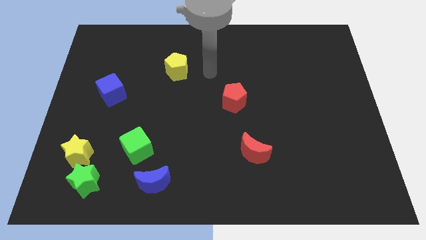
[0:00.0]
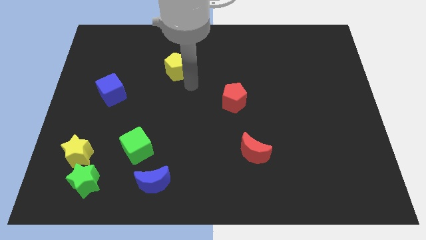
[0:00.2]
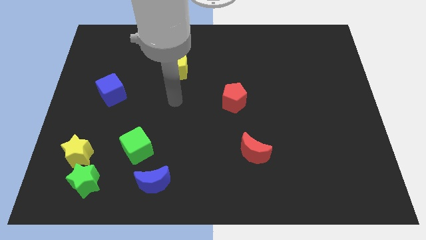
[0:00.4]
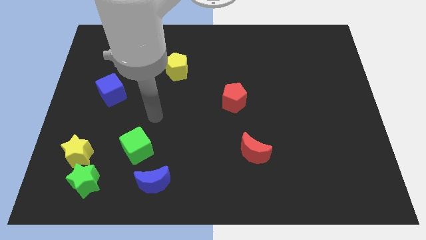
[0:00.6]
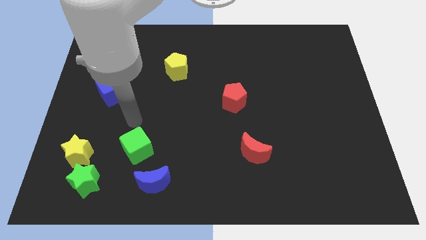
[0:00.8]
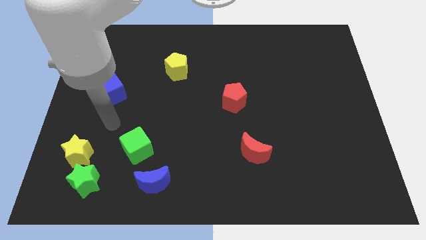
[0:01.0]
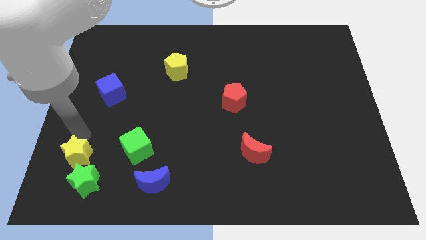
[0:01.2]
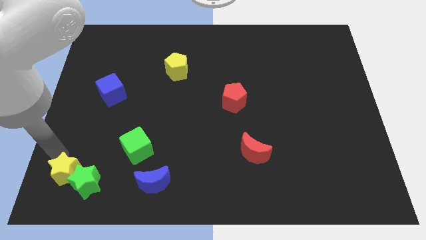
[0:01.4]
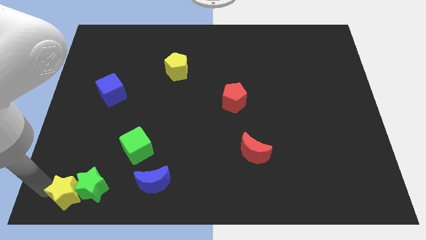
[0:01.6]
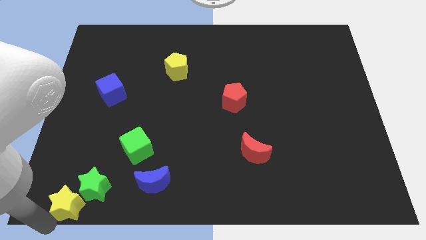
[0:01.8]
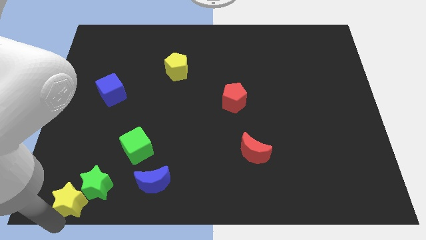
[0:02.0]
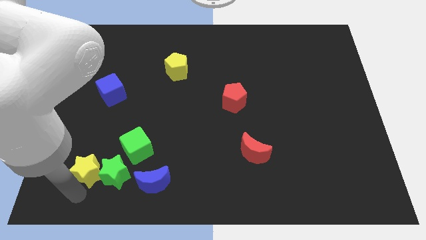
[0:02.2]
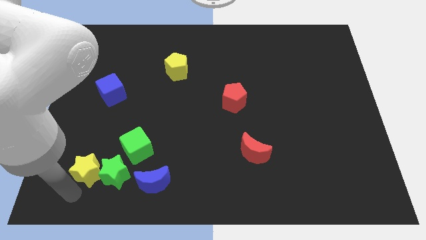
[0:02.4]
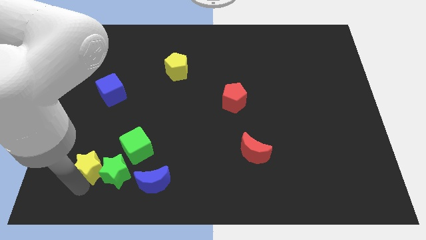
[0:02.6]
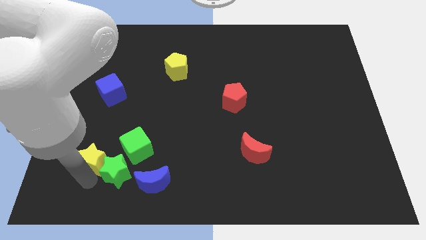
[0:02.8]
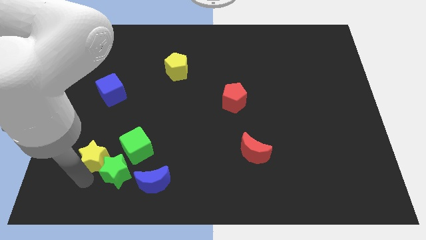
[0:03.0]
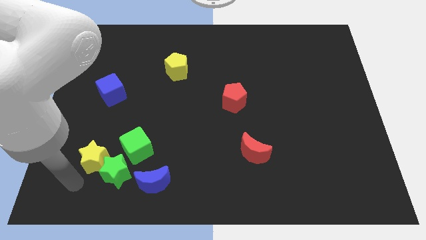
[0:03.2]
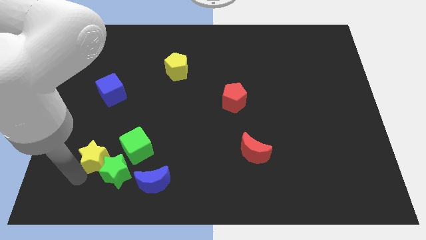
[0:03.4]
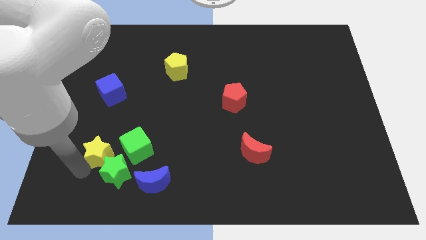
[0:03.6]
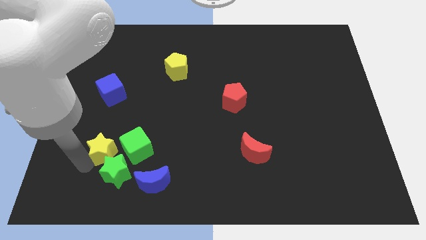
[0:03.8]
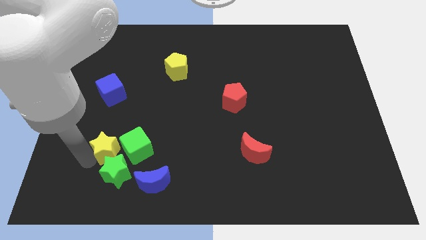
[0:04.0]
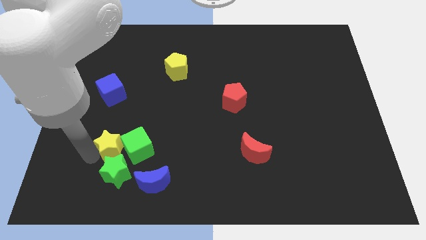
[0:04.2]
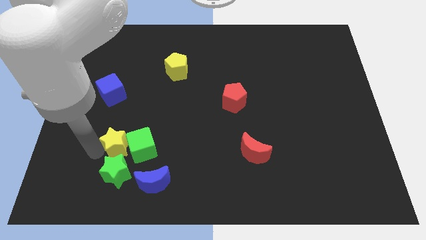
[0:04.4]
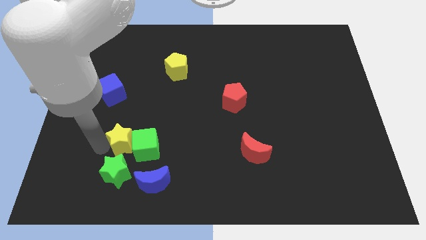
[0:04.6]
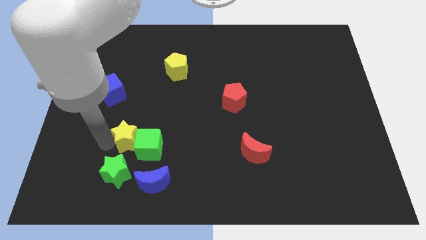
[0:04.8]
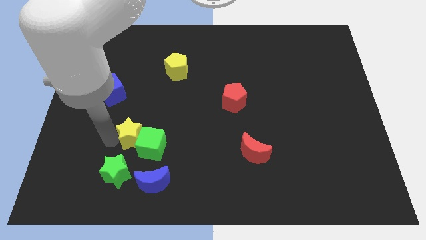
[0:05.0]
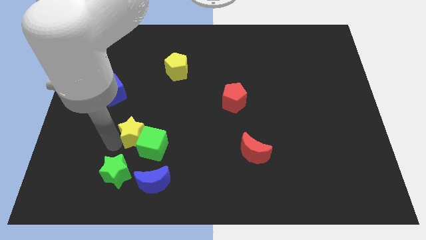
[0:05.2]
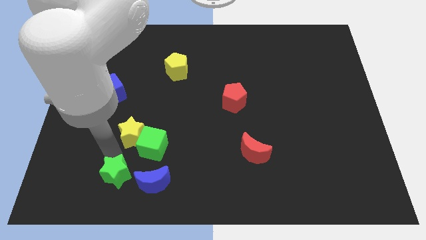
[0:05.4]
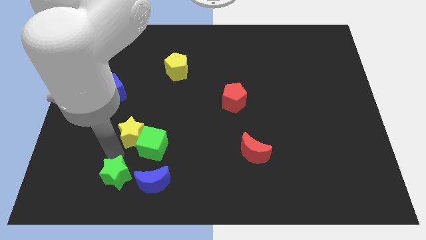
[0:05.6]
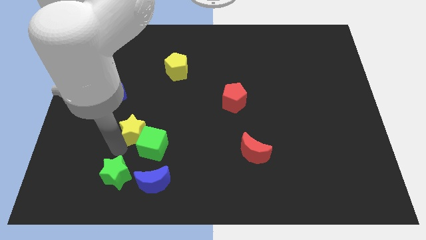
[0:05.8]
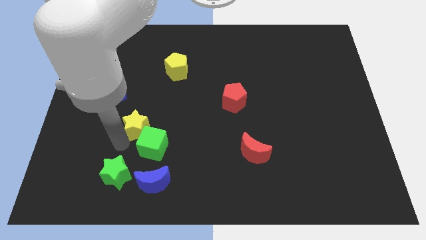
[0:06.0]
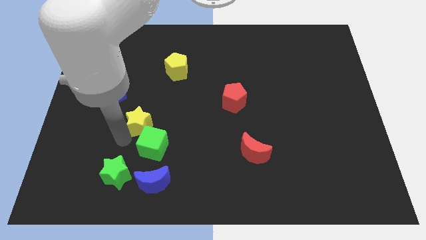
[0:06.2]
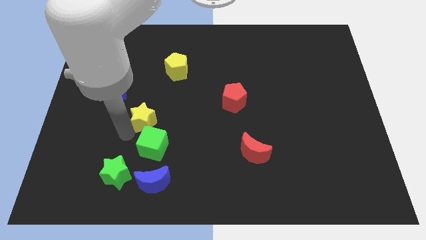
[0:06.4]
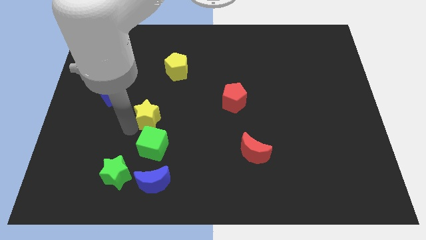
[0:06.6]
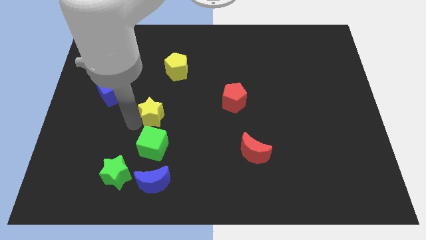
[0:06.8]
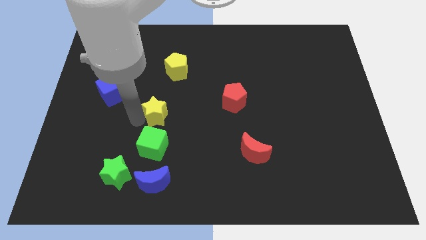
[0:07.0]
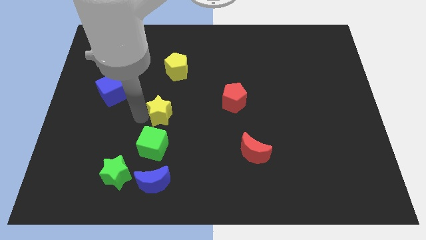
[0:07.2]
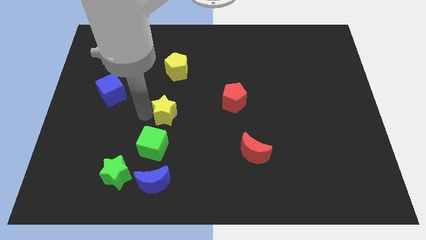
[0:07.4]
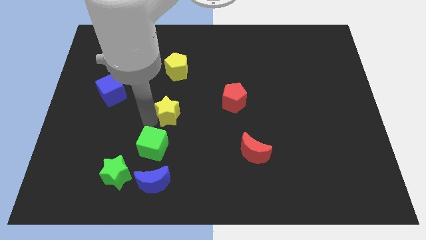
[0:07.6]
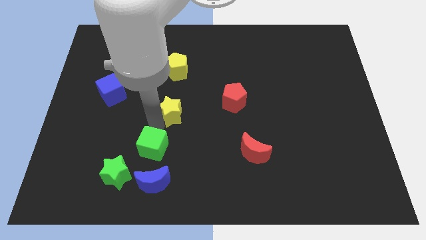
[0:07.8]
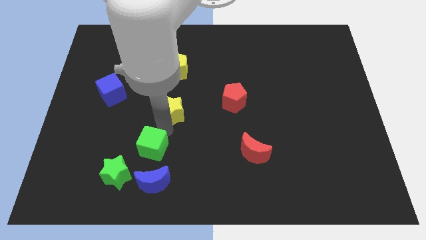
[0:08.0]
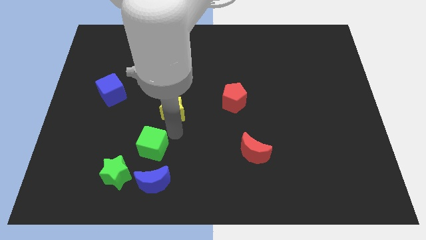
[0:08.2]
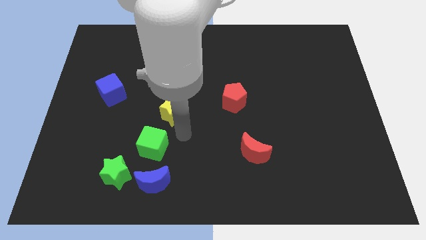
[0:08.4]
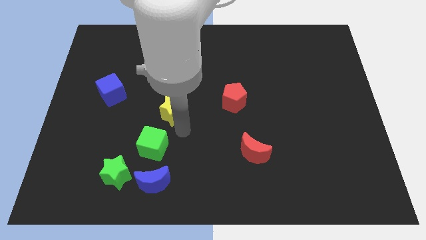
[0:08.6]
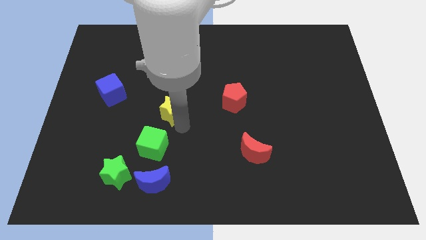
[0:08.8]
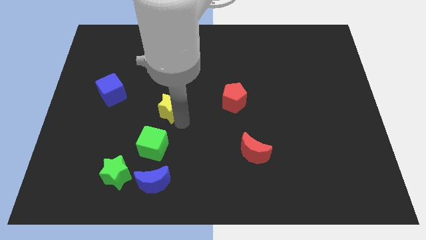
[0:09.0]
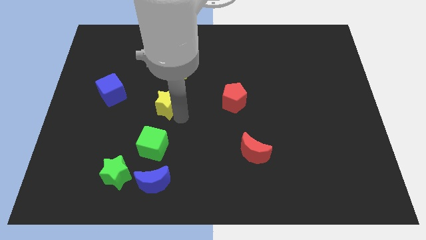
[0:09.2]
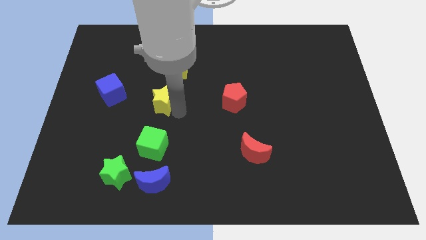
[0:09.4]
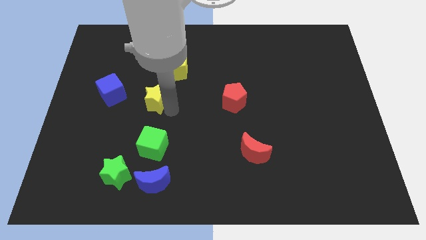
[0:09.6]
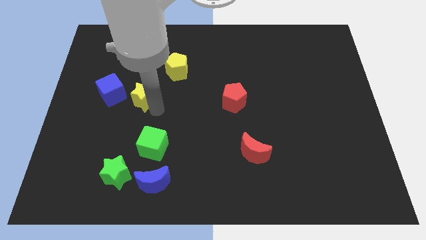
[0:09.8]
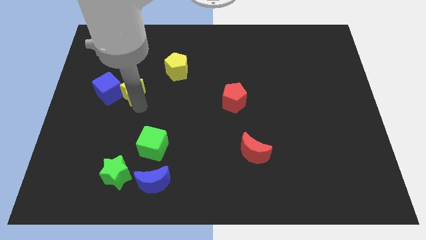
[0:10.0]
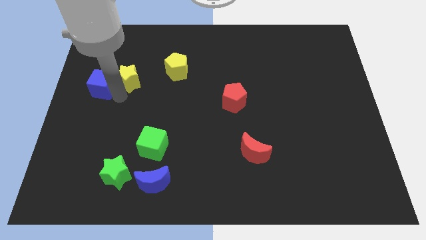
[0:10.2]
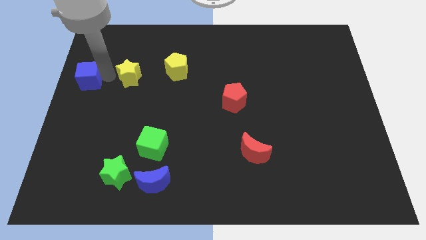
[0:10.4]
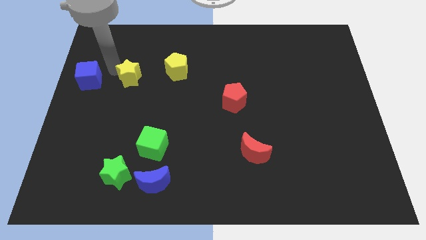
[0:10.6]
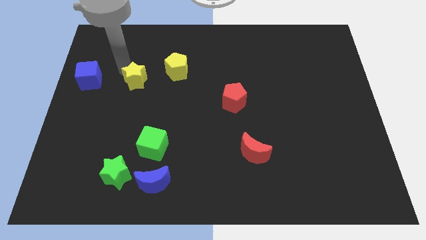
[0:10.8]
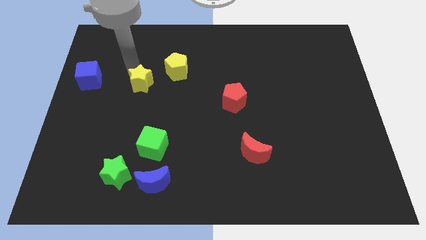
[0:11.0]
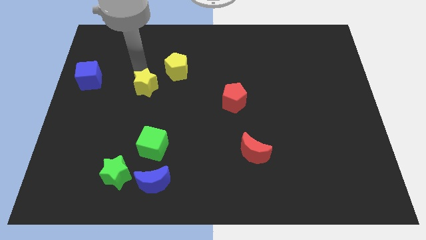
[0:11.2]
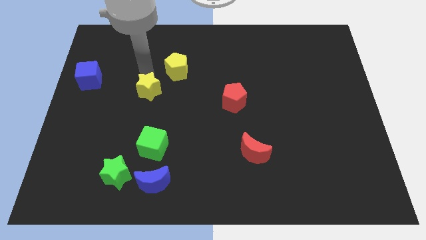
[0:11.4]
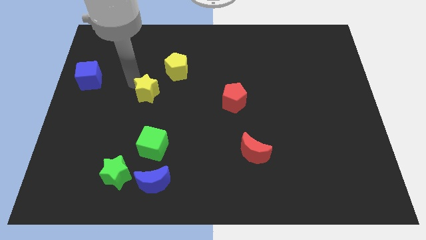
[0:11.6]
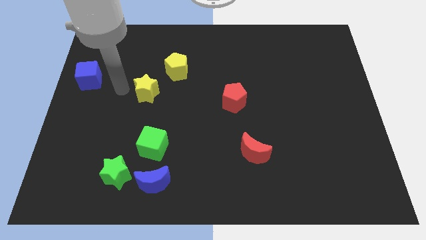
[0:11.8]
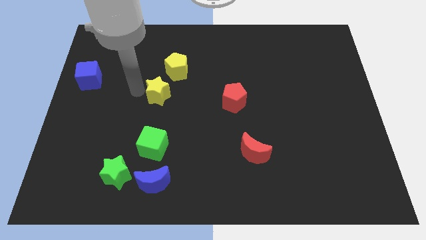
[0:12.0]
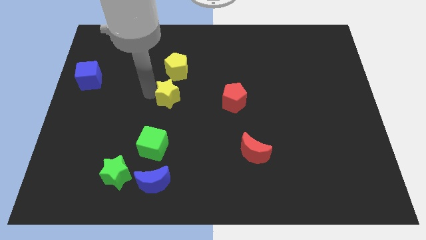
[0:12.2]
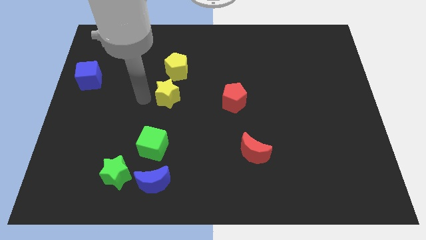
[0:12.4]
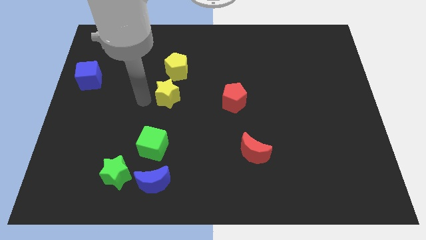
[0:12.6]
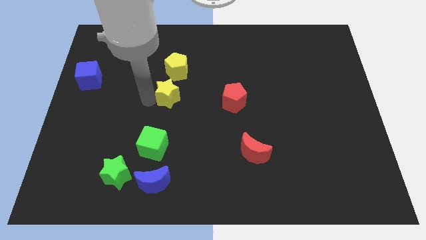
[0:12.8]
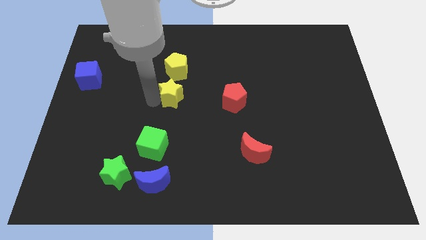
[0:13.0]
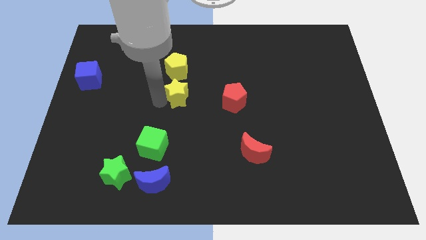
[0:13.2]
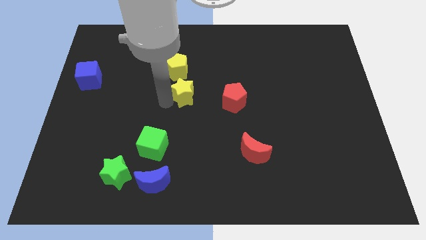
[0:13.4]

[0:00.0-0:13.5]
move the yellow star to the bottom right of the yellow pentagon

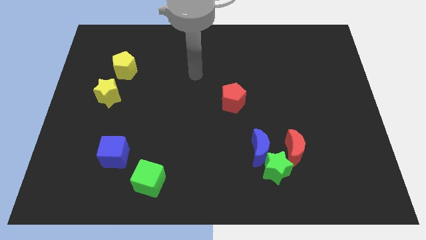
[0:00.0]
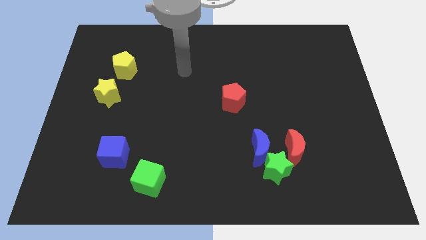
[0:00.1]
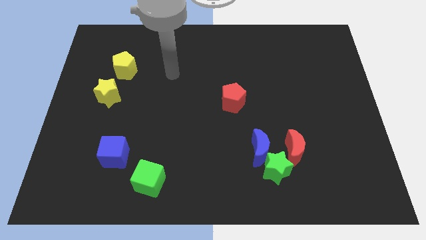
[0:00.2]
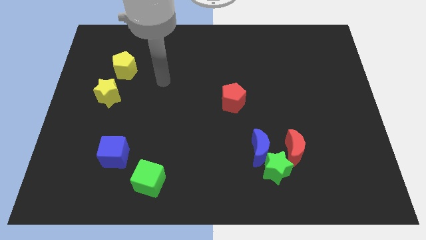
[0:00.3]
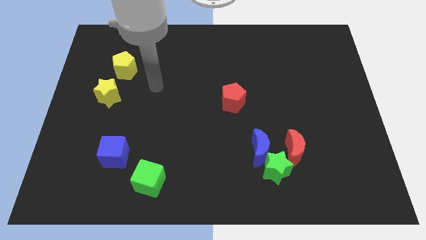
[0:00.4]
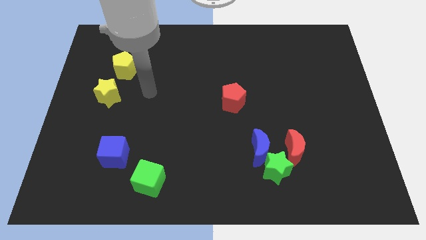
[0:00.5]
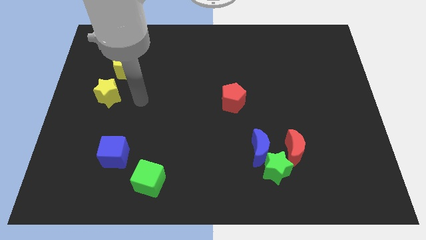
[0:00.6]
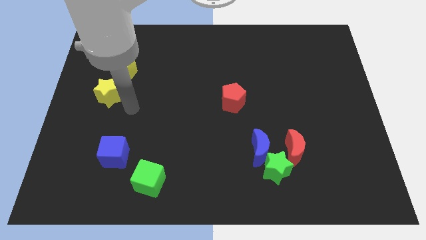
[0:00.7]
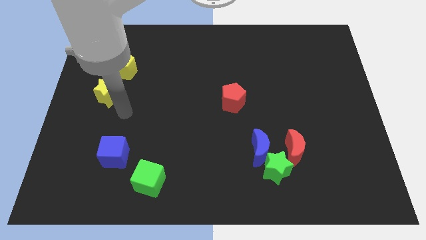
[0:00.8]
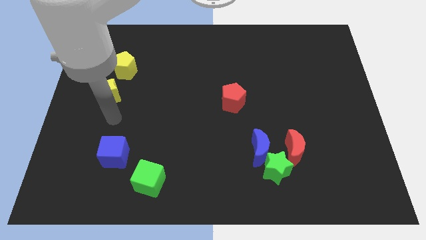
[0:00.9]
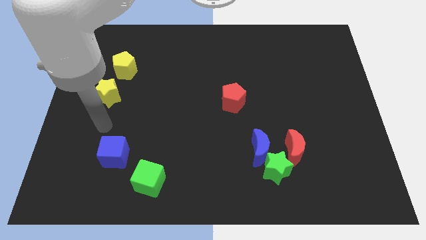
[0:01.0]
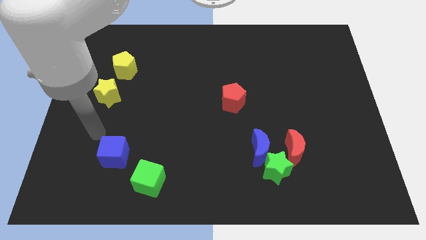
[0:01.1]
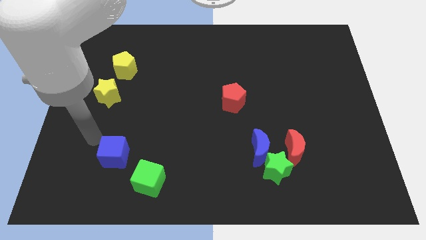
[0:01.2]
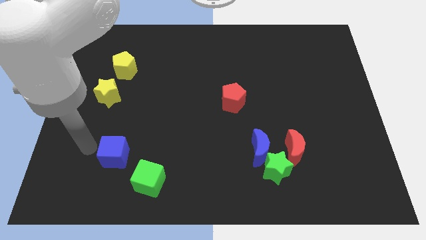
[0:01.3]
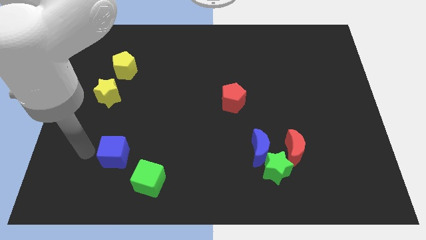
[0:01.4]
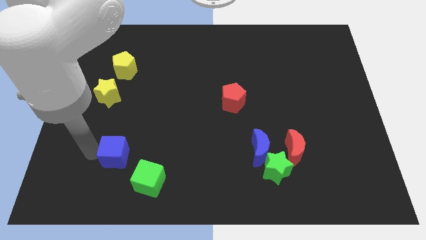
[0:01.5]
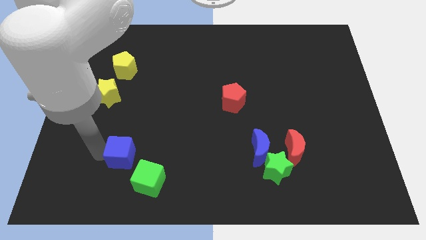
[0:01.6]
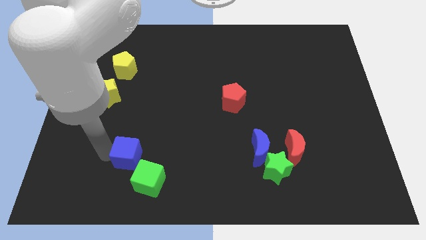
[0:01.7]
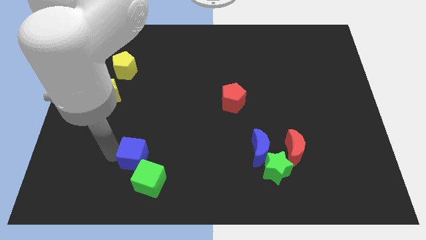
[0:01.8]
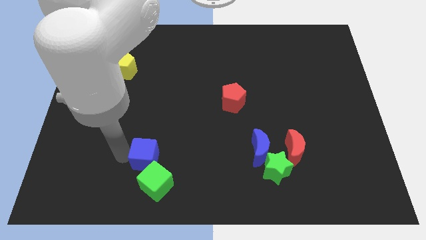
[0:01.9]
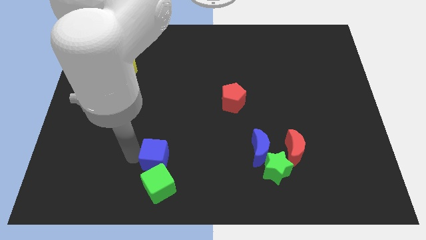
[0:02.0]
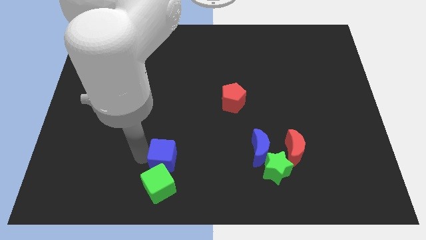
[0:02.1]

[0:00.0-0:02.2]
push the blue cube to the top right of the green cube
